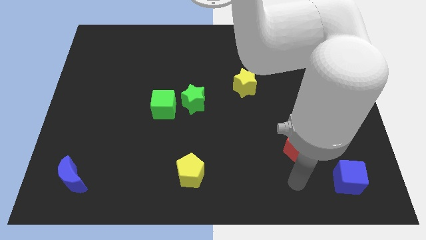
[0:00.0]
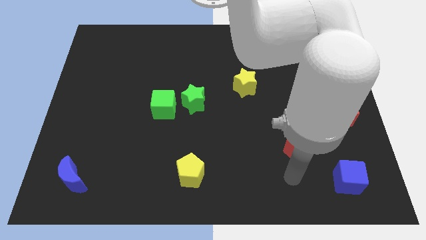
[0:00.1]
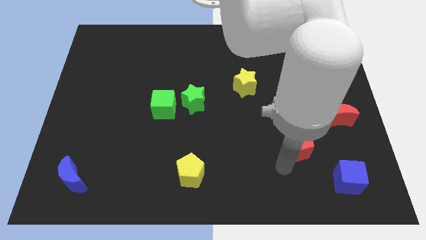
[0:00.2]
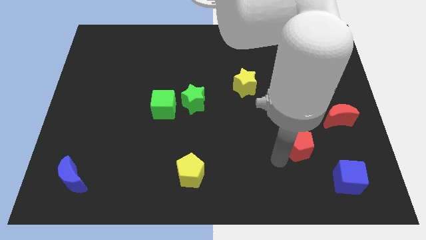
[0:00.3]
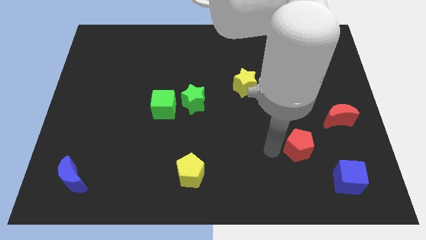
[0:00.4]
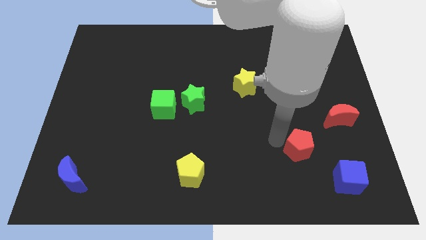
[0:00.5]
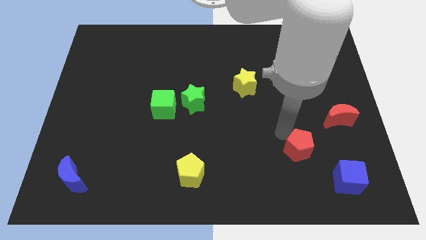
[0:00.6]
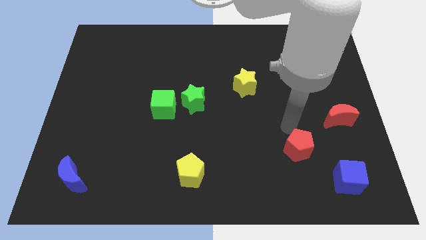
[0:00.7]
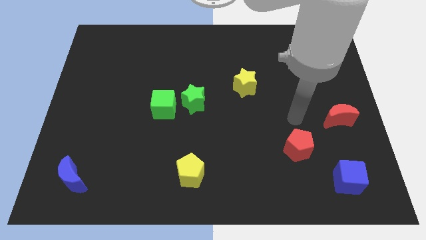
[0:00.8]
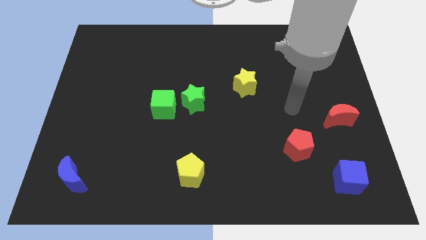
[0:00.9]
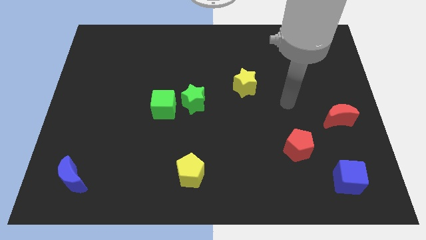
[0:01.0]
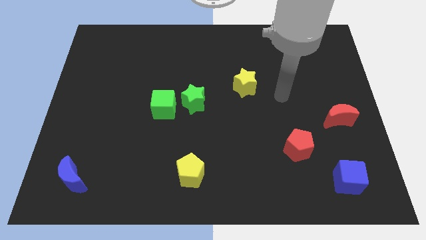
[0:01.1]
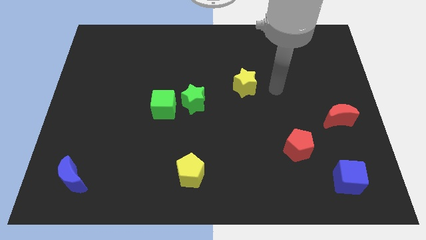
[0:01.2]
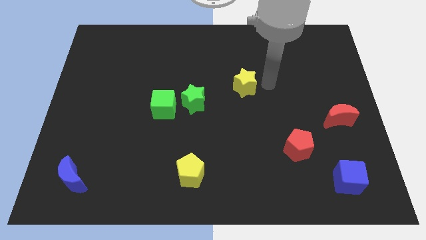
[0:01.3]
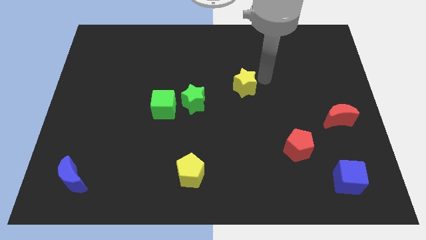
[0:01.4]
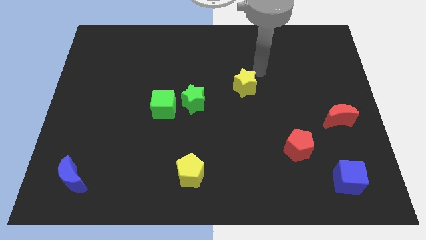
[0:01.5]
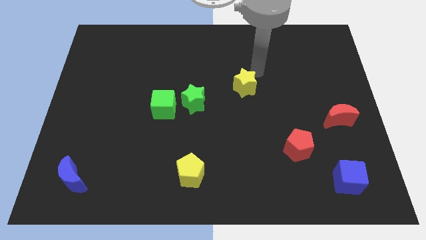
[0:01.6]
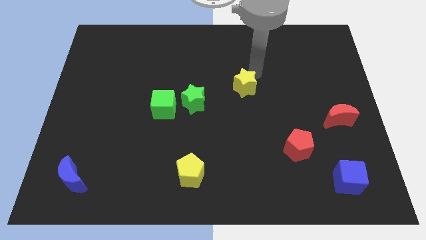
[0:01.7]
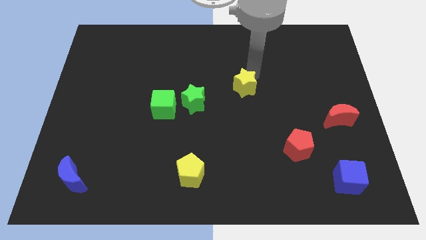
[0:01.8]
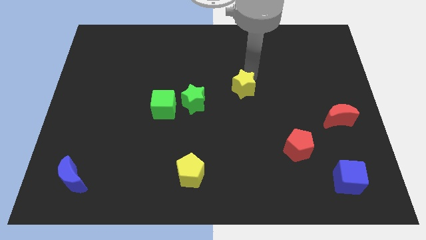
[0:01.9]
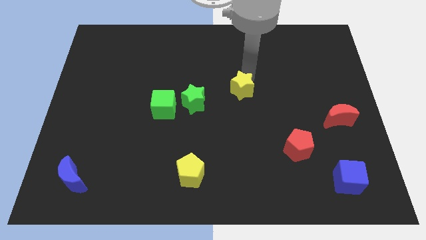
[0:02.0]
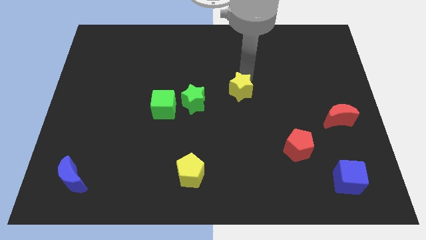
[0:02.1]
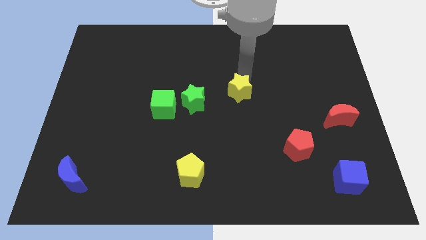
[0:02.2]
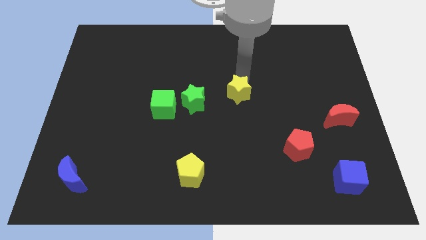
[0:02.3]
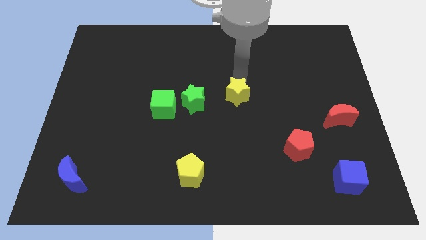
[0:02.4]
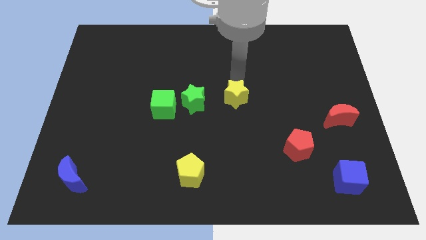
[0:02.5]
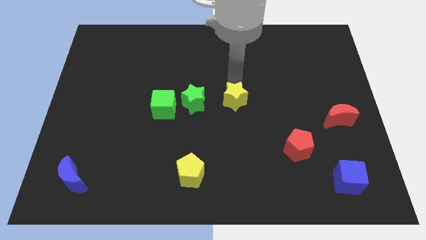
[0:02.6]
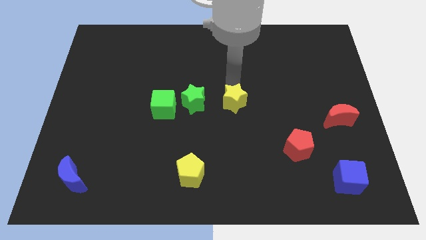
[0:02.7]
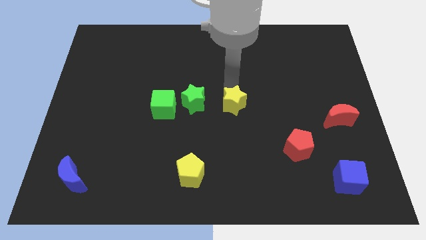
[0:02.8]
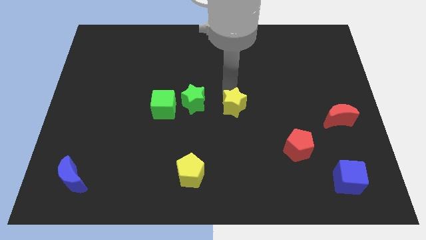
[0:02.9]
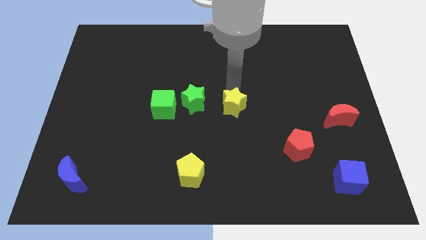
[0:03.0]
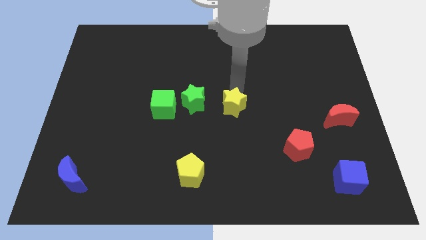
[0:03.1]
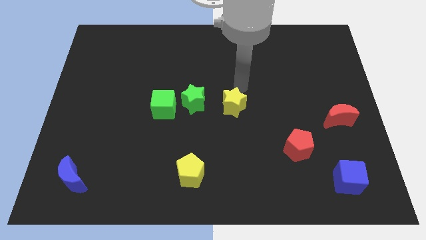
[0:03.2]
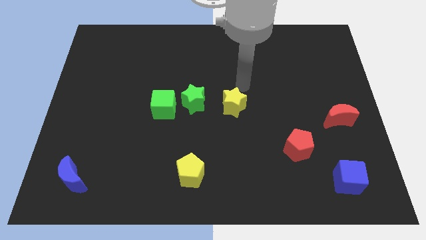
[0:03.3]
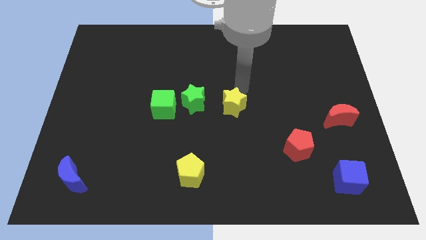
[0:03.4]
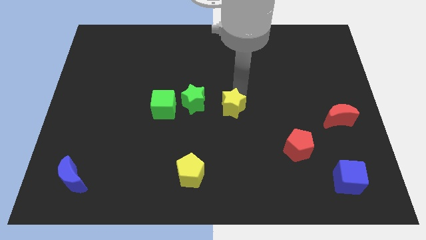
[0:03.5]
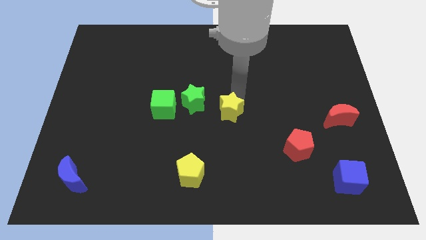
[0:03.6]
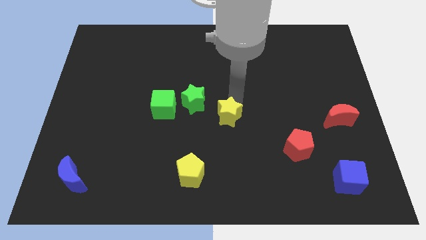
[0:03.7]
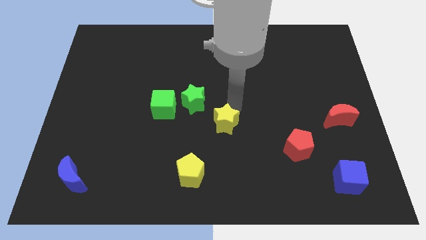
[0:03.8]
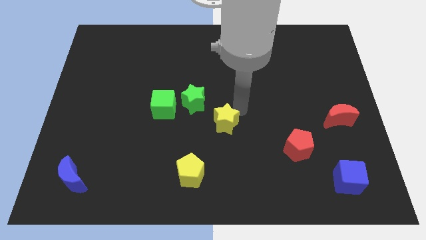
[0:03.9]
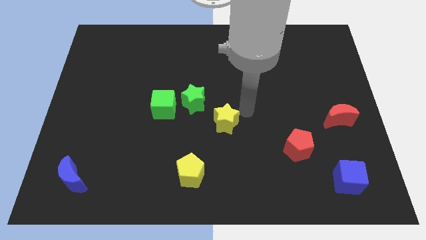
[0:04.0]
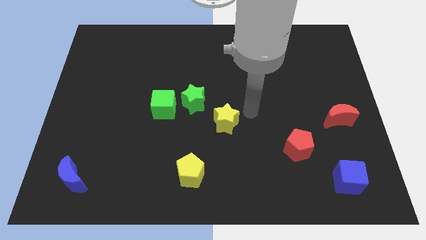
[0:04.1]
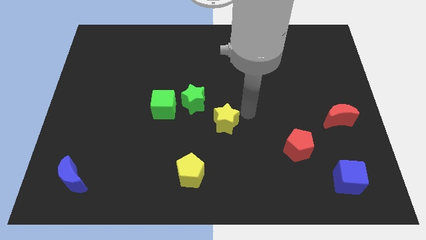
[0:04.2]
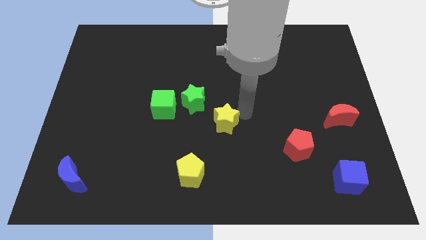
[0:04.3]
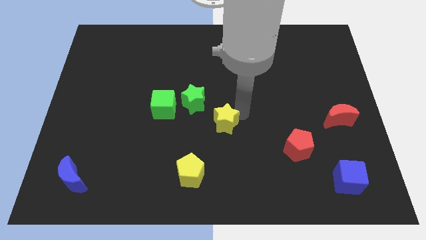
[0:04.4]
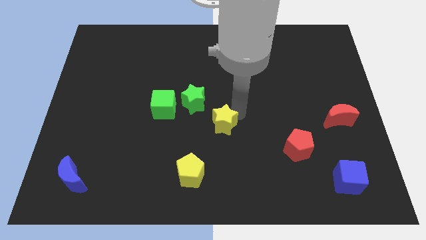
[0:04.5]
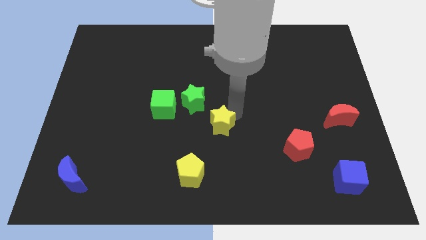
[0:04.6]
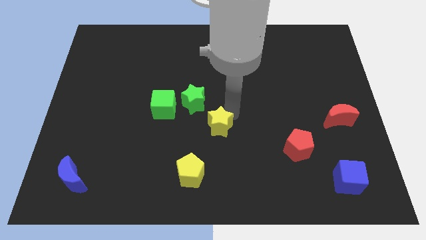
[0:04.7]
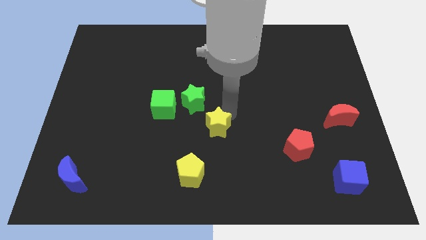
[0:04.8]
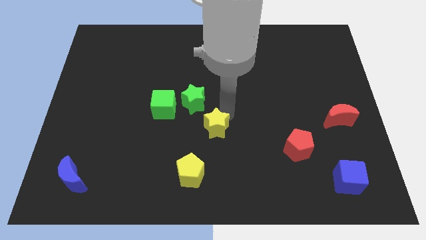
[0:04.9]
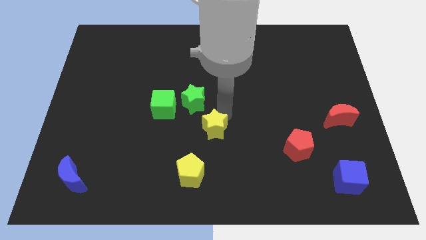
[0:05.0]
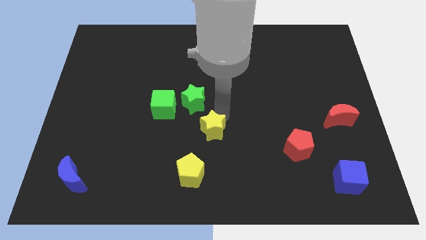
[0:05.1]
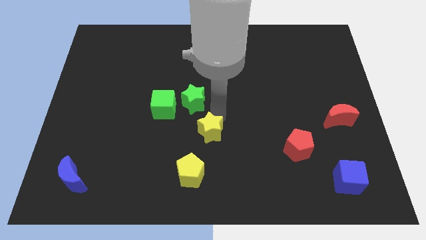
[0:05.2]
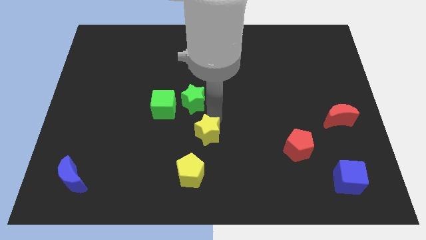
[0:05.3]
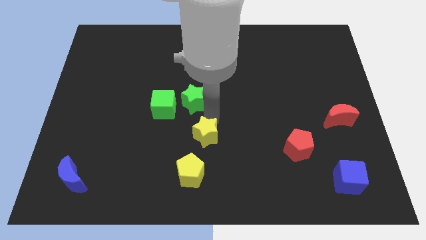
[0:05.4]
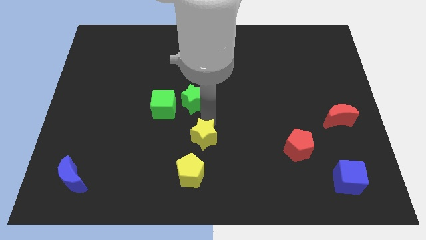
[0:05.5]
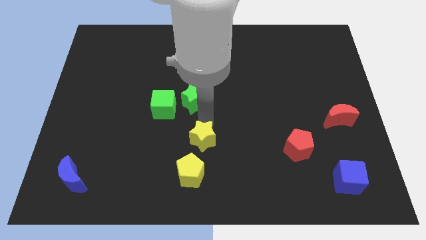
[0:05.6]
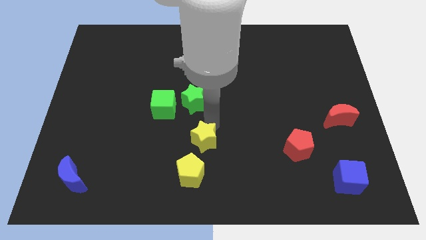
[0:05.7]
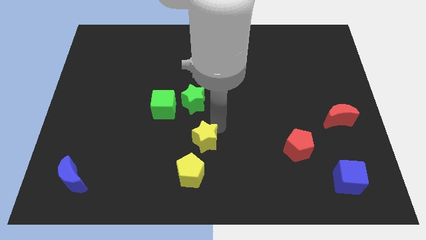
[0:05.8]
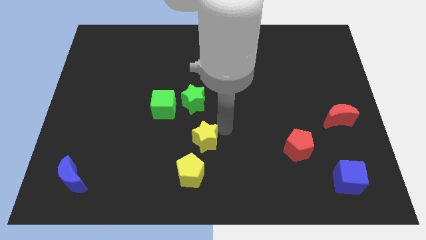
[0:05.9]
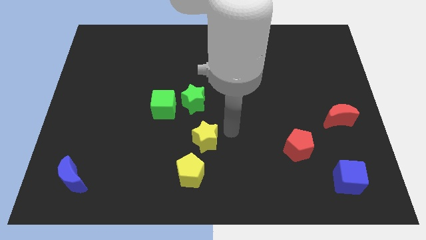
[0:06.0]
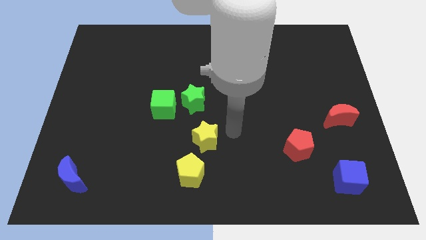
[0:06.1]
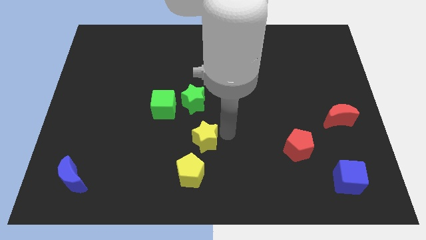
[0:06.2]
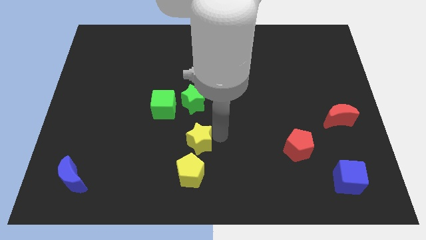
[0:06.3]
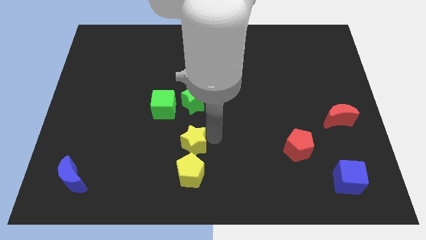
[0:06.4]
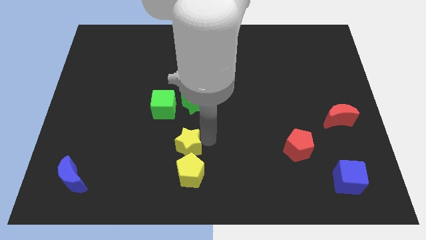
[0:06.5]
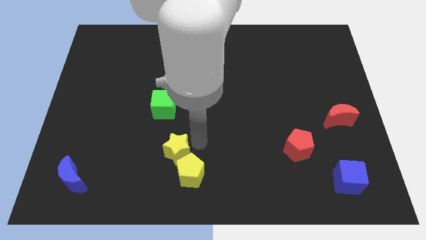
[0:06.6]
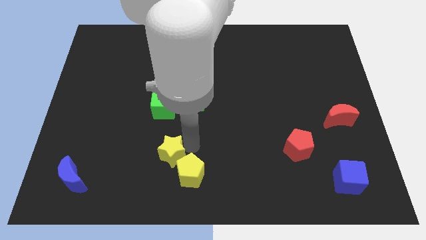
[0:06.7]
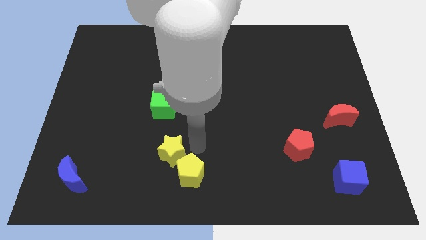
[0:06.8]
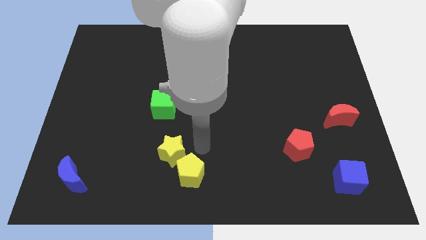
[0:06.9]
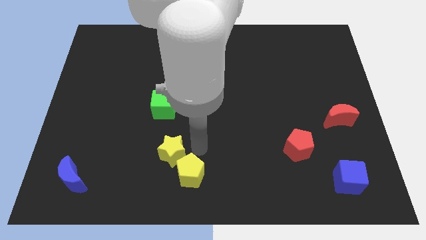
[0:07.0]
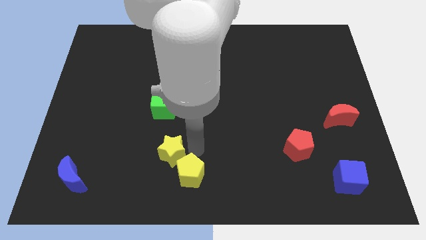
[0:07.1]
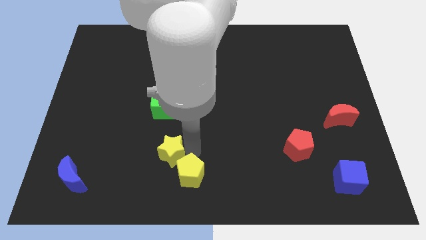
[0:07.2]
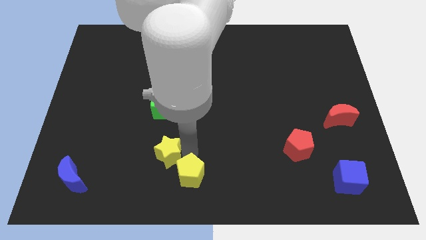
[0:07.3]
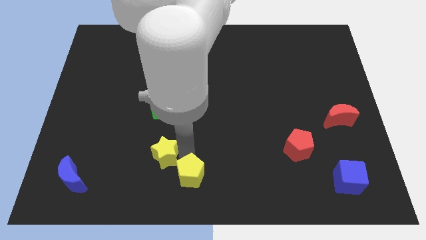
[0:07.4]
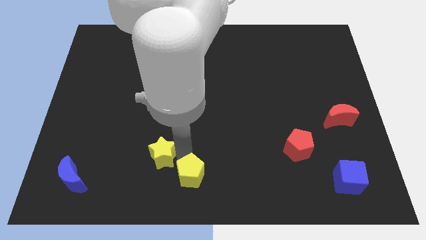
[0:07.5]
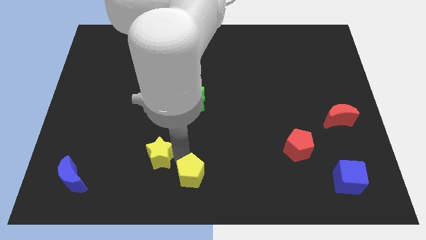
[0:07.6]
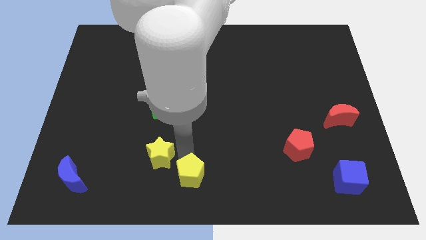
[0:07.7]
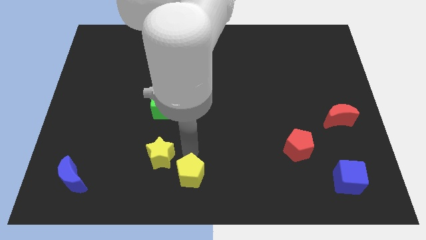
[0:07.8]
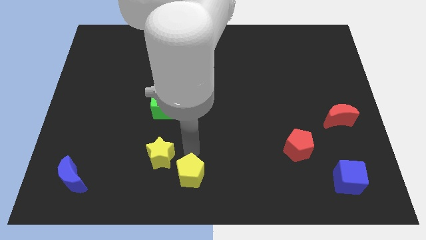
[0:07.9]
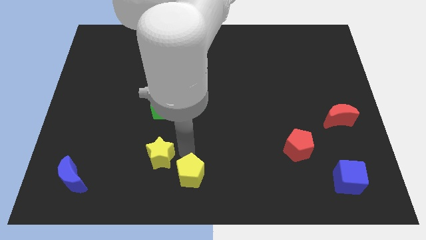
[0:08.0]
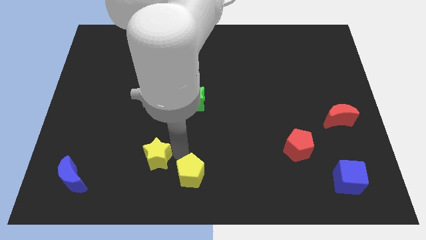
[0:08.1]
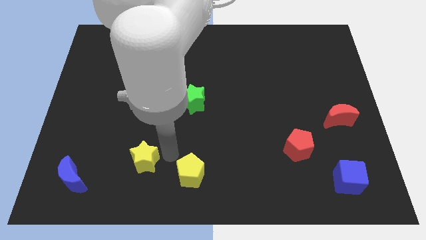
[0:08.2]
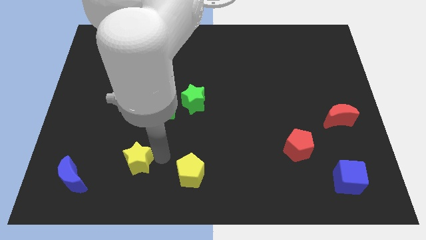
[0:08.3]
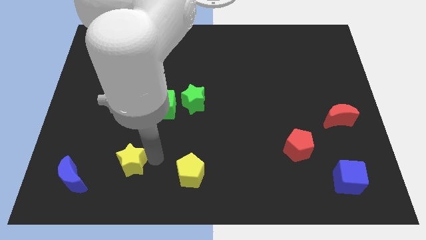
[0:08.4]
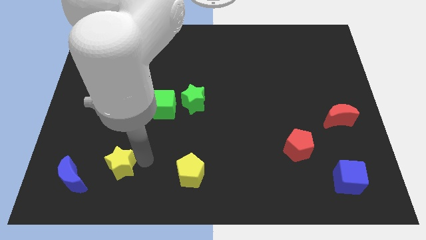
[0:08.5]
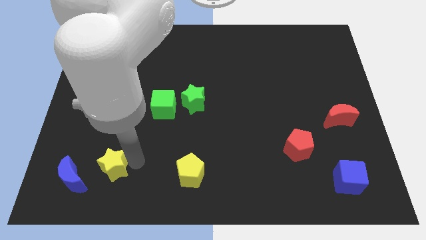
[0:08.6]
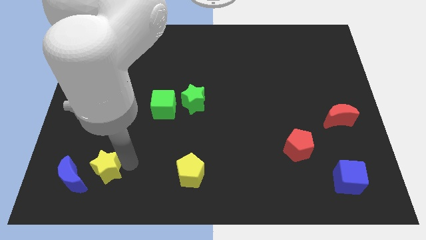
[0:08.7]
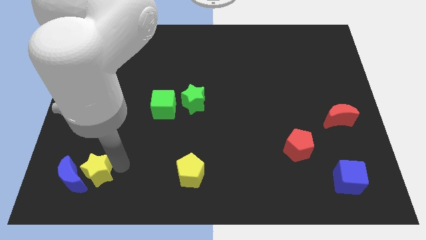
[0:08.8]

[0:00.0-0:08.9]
move the yellow star next to the blue moon
